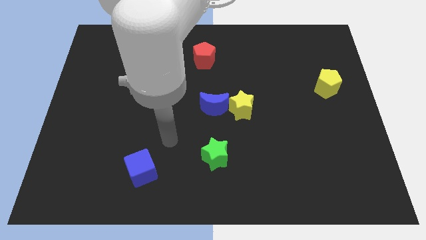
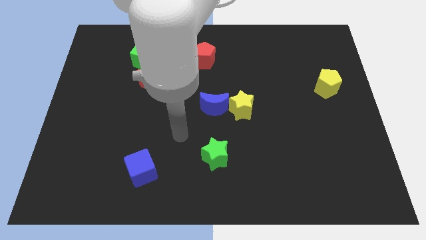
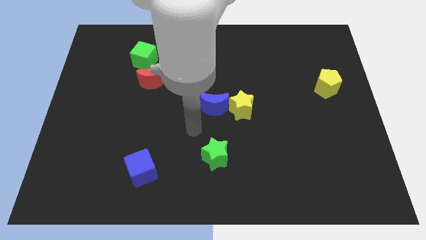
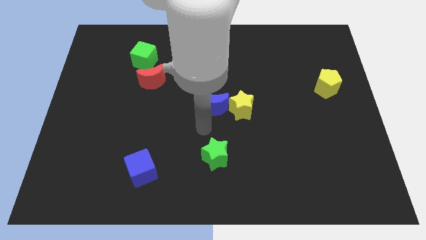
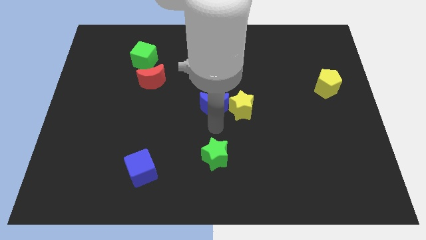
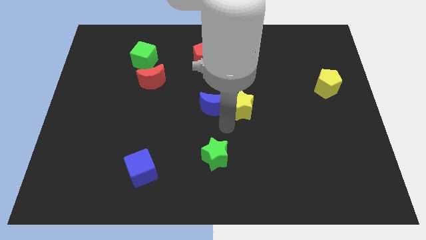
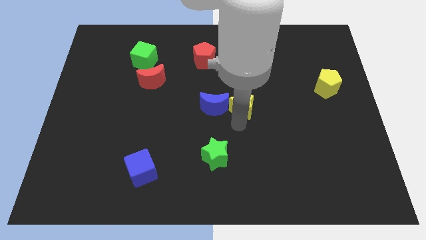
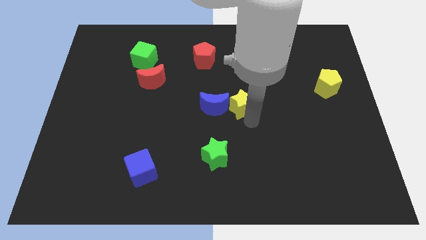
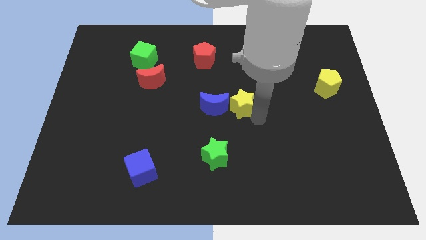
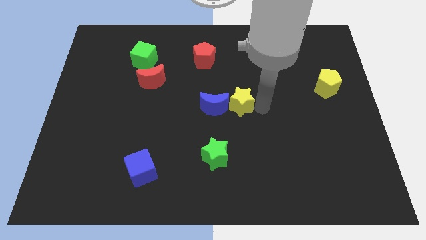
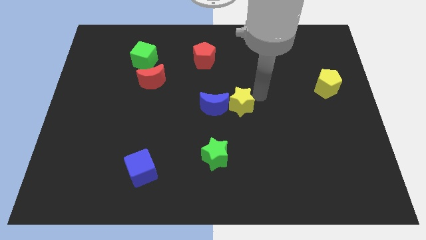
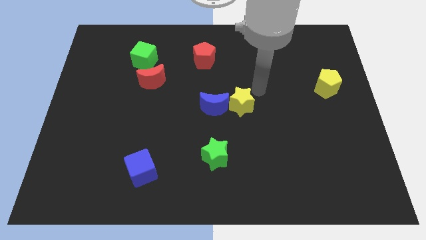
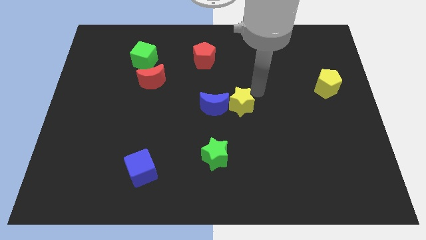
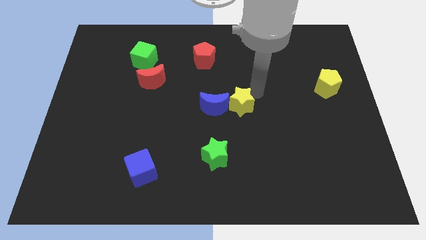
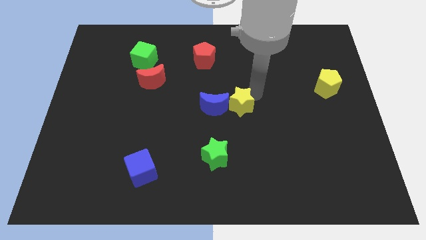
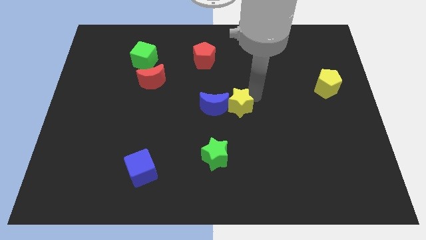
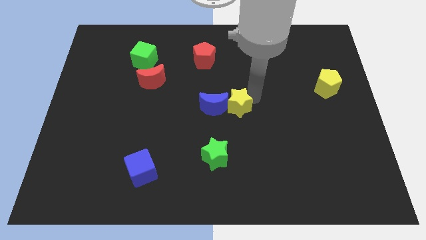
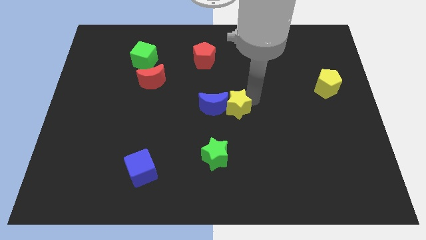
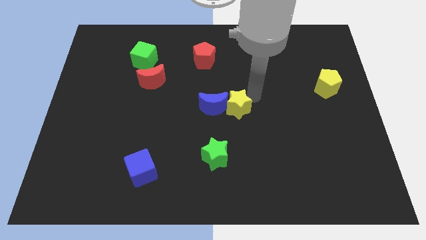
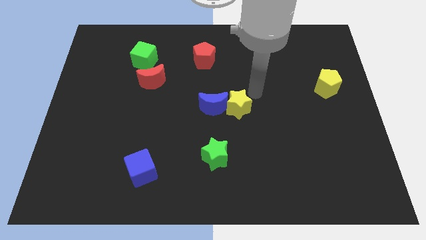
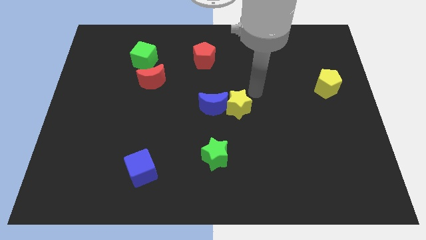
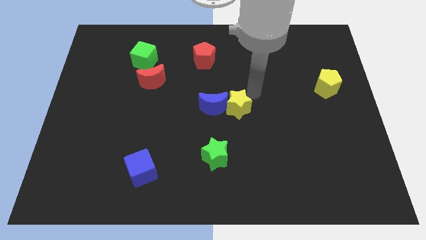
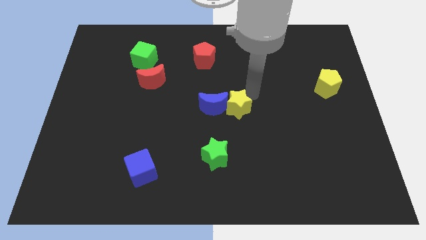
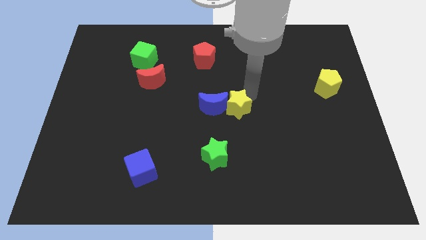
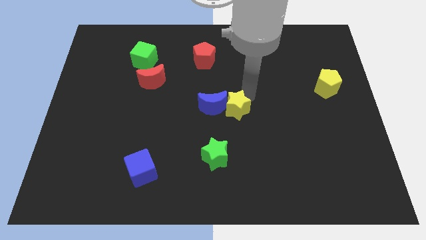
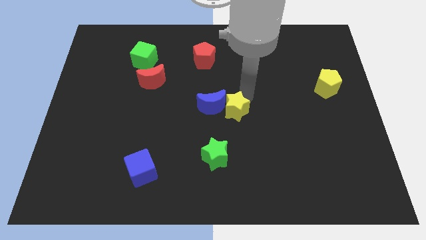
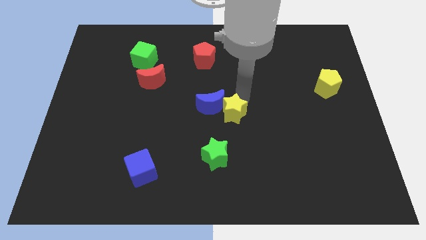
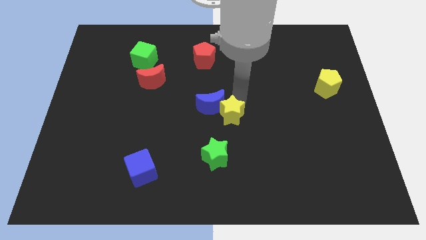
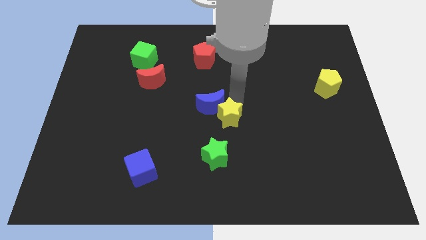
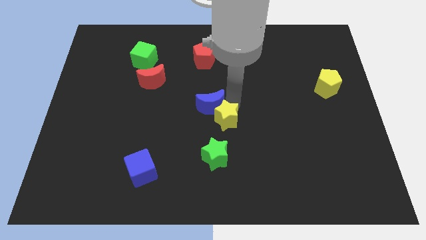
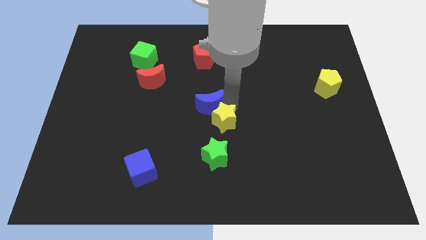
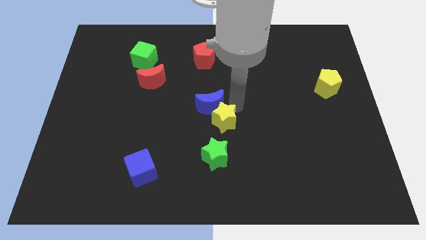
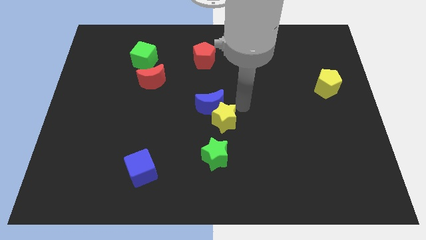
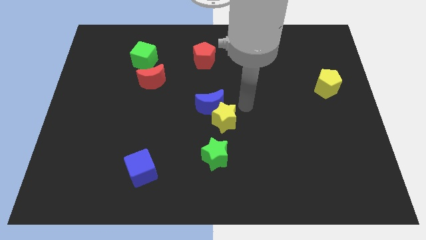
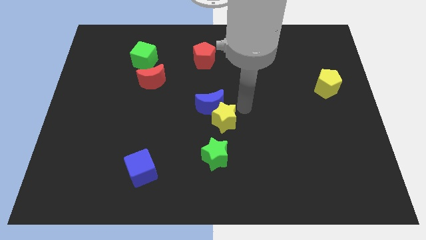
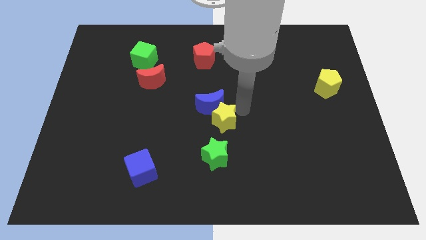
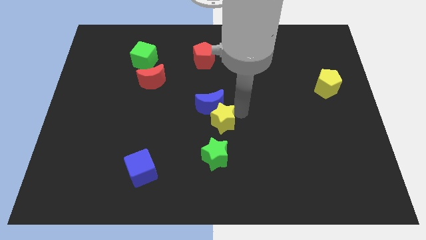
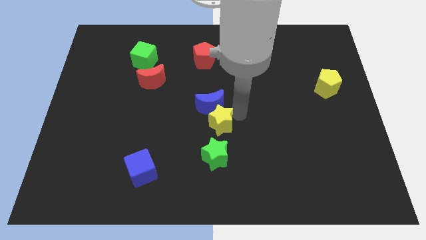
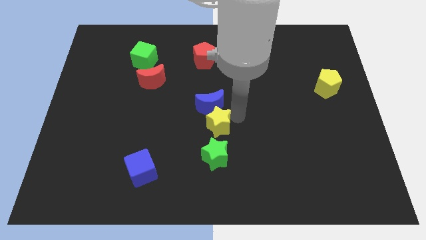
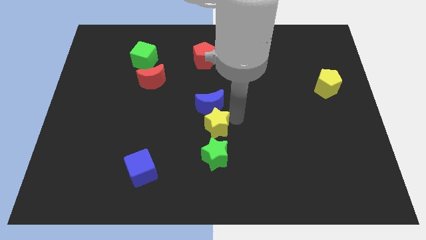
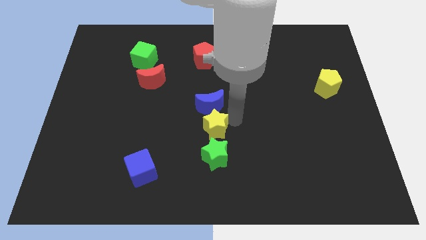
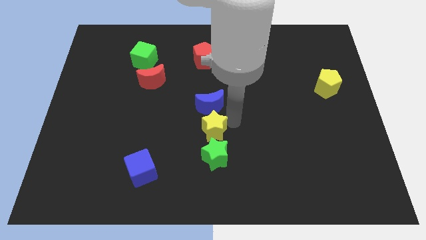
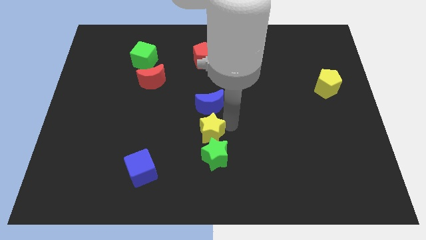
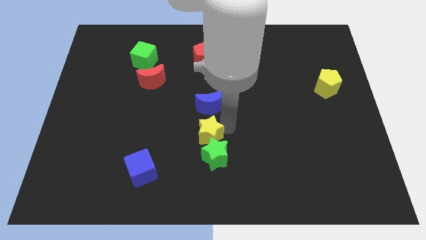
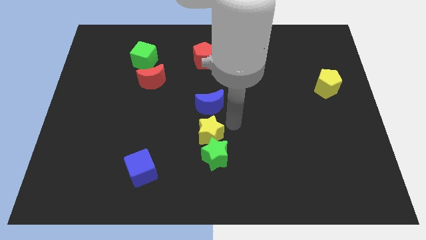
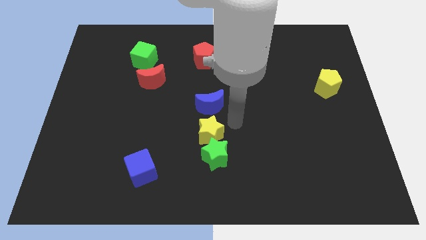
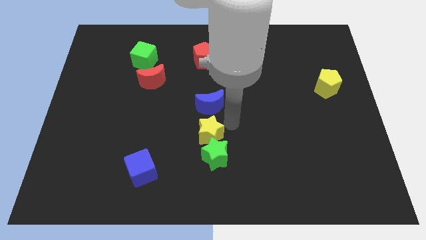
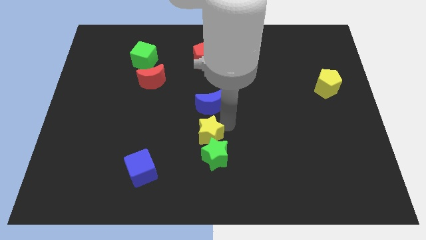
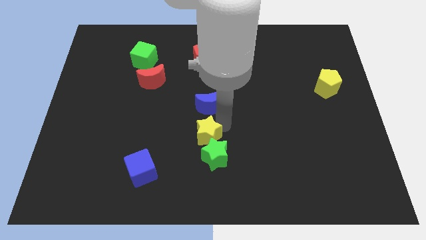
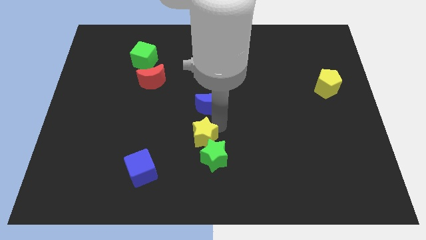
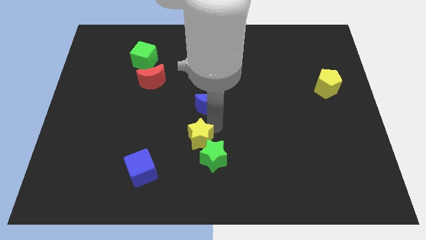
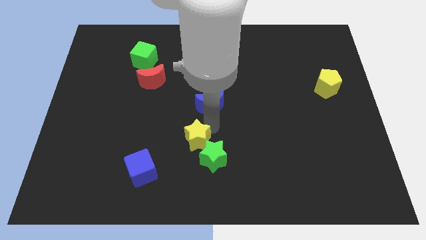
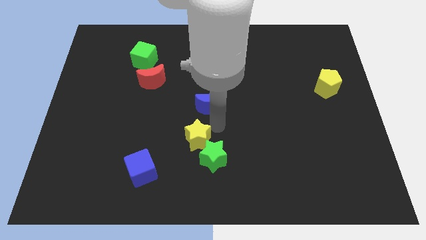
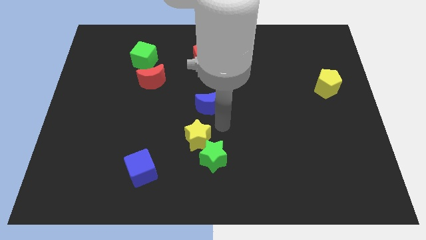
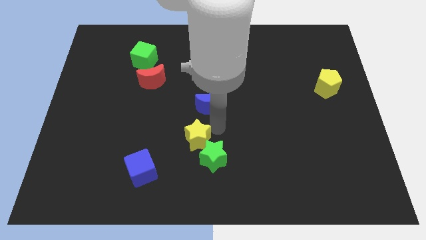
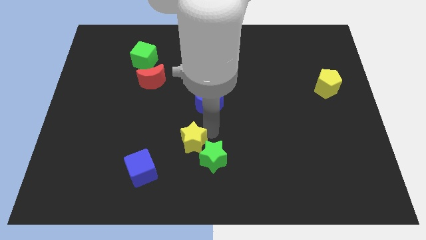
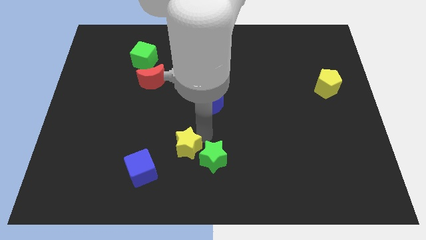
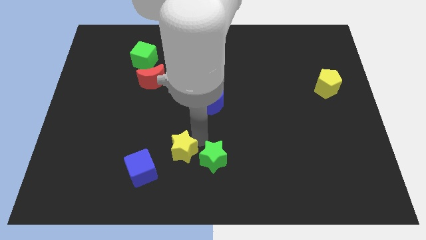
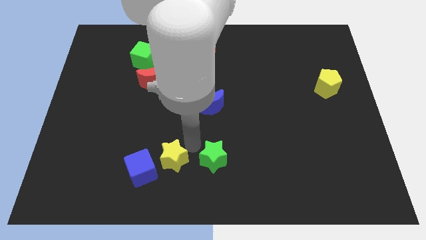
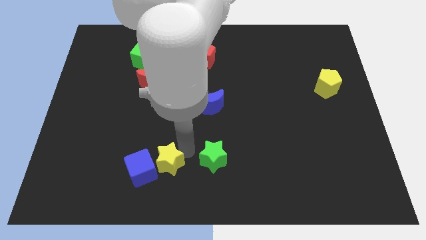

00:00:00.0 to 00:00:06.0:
put the yellow star close to the blue cube

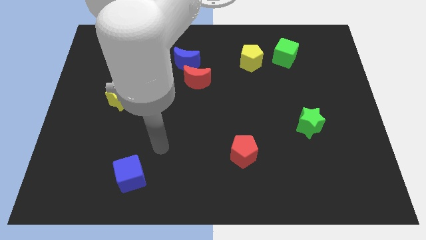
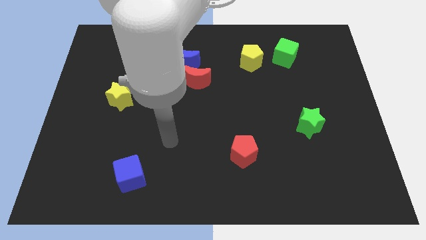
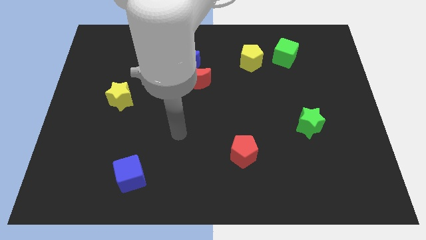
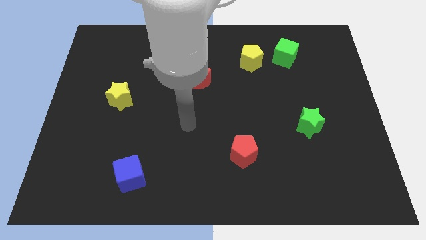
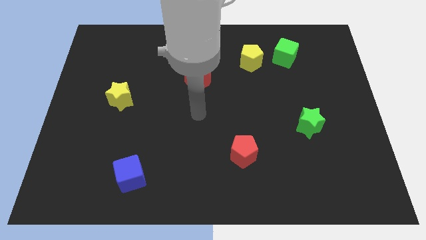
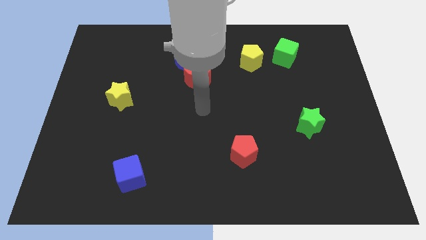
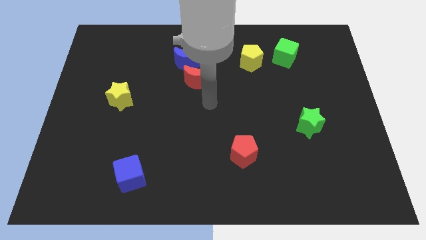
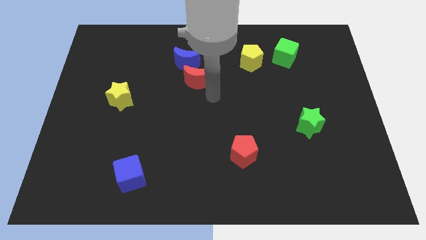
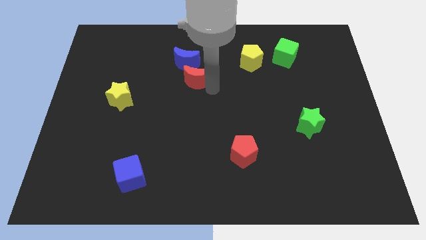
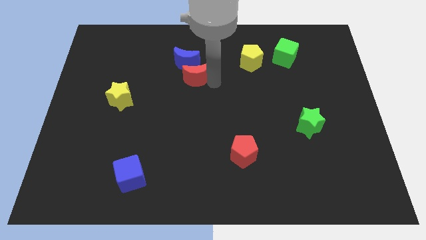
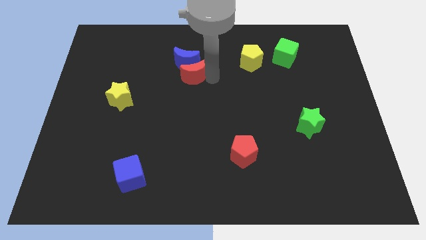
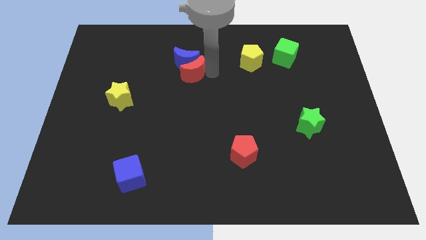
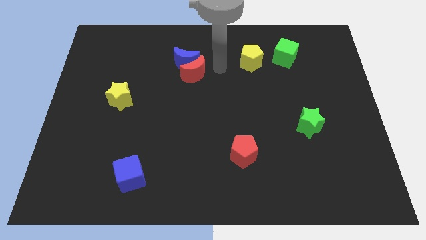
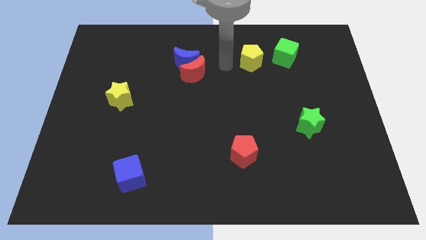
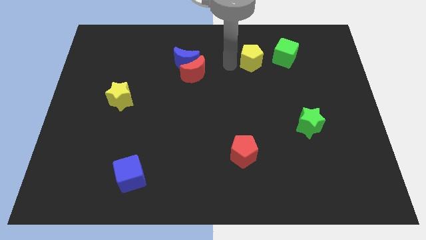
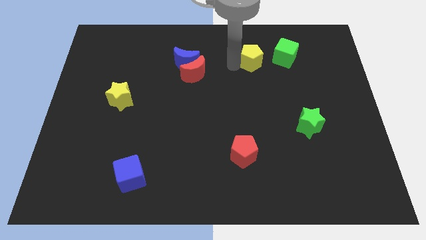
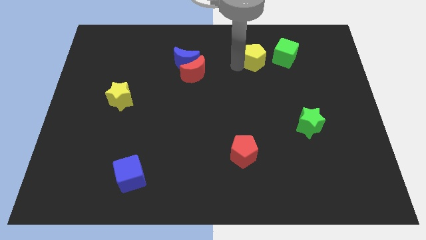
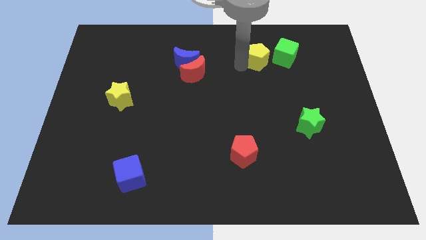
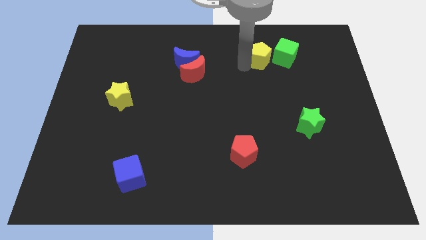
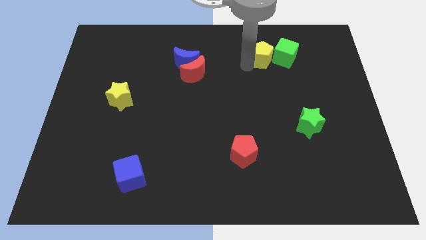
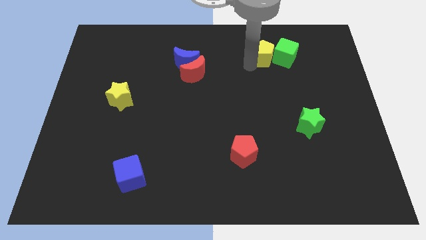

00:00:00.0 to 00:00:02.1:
move the yellow pentagon next to the green cube

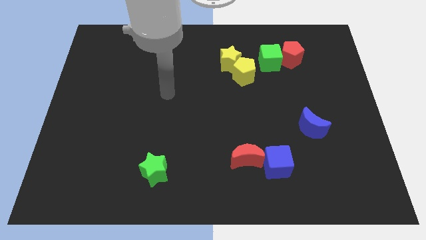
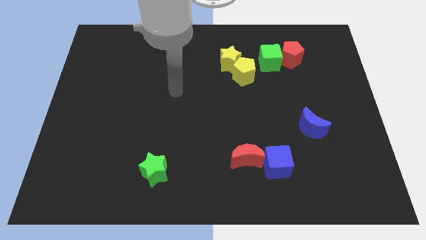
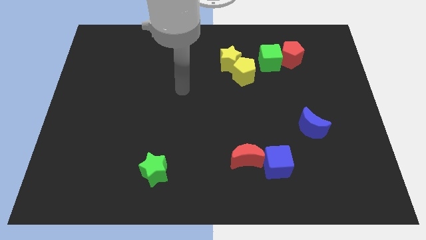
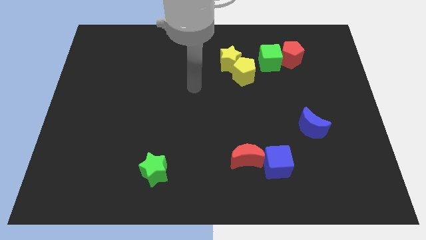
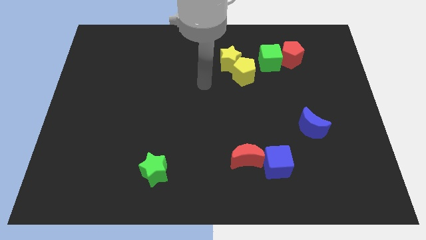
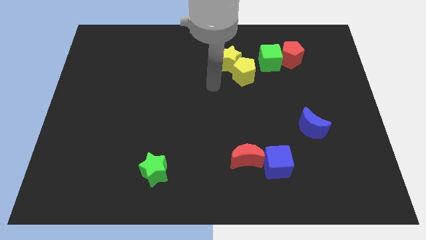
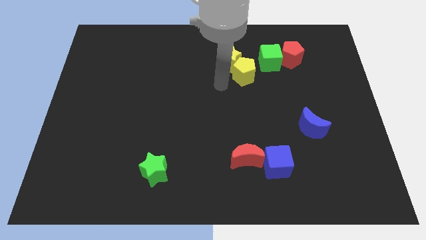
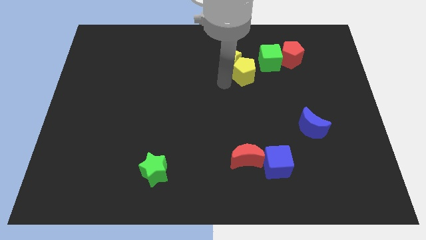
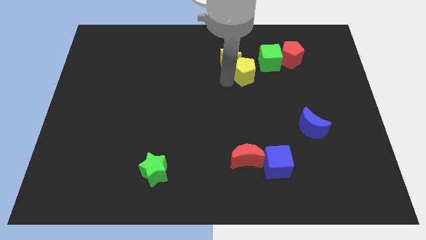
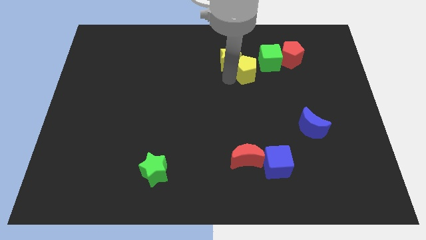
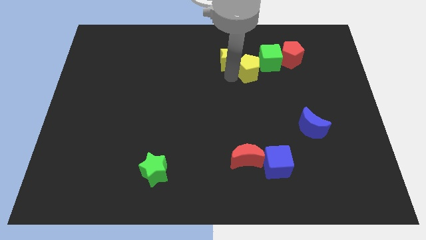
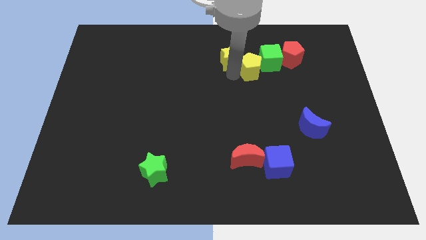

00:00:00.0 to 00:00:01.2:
move the yellow pentagon towards the green cube
